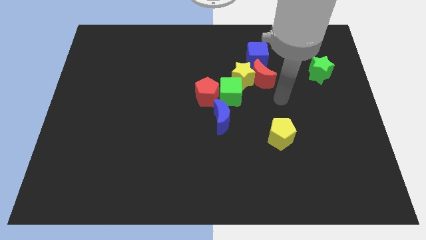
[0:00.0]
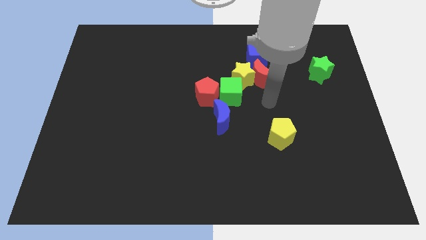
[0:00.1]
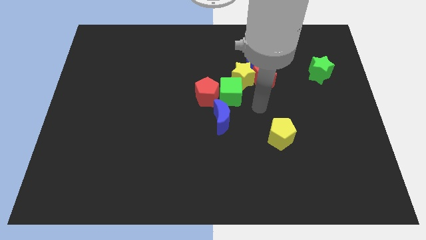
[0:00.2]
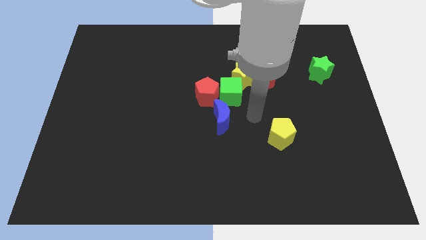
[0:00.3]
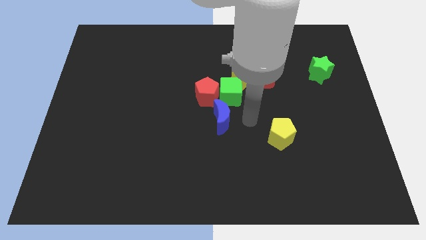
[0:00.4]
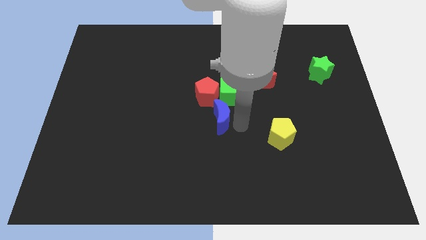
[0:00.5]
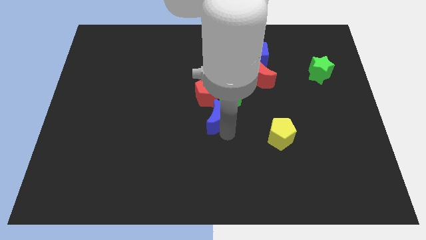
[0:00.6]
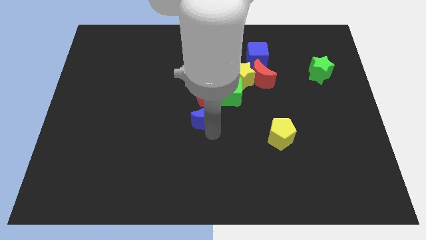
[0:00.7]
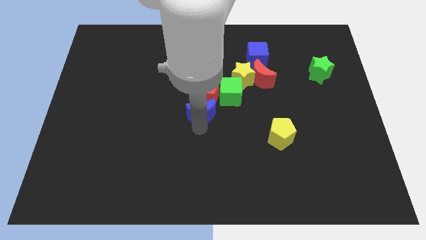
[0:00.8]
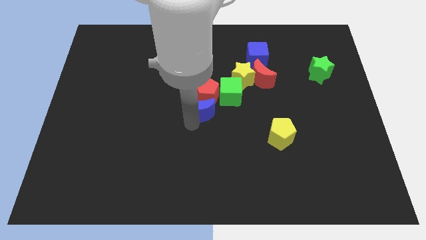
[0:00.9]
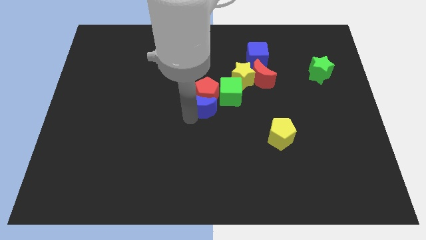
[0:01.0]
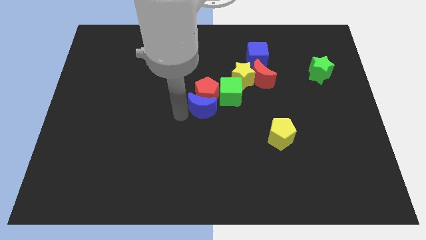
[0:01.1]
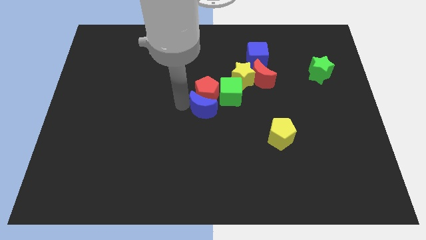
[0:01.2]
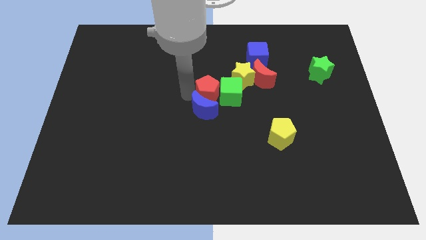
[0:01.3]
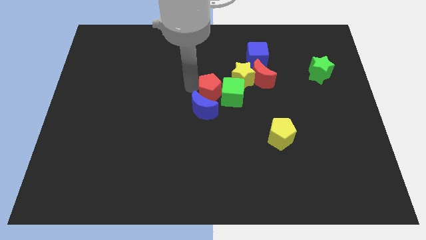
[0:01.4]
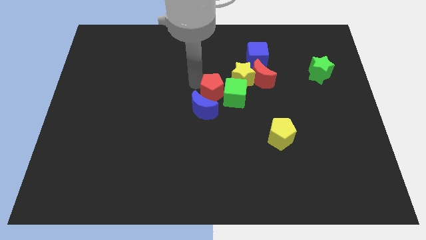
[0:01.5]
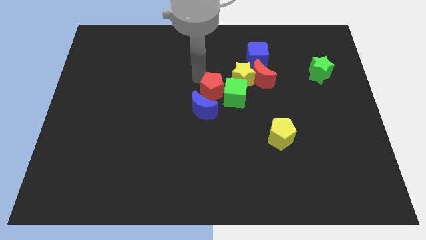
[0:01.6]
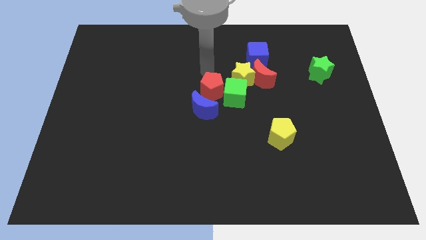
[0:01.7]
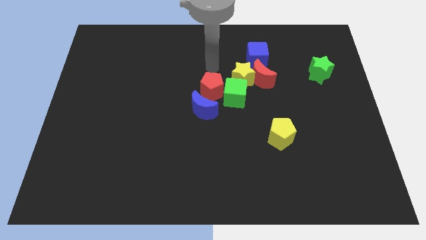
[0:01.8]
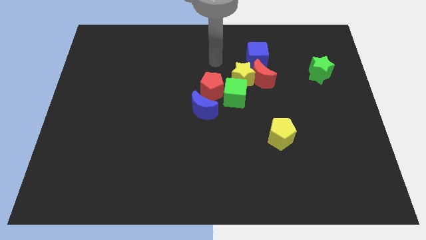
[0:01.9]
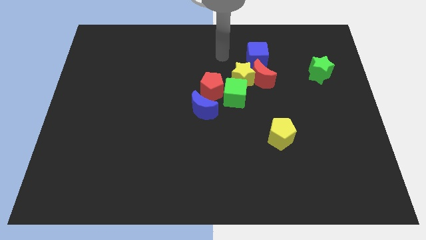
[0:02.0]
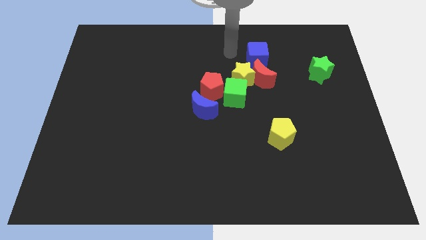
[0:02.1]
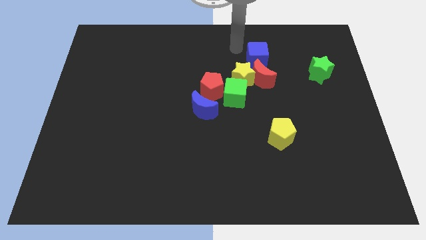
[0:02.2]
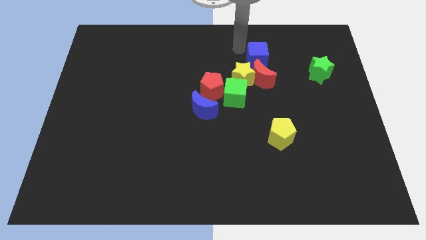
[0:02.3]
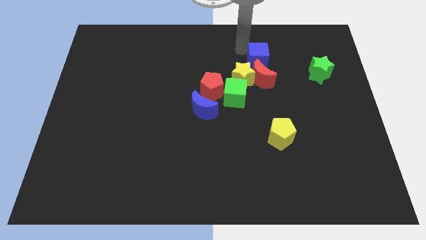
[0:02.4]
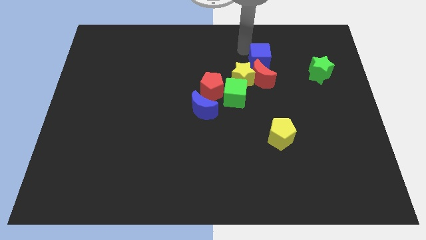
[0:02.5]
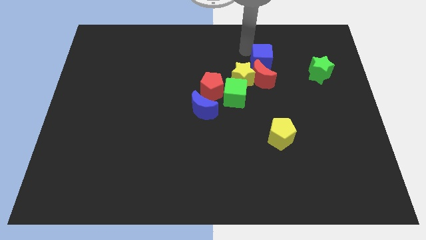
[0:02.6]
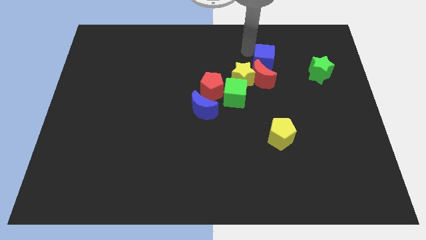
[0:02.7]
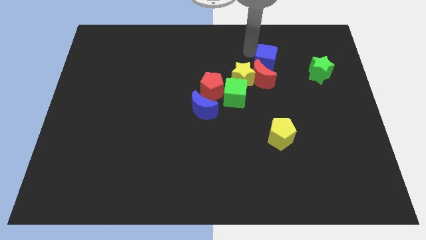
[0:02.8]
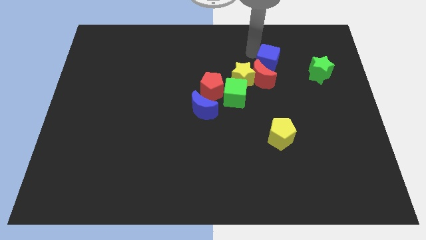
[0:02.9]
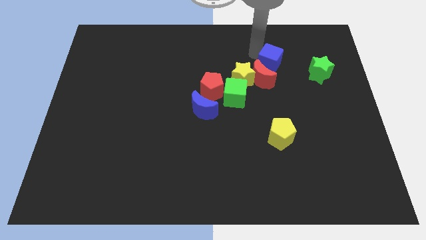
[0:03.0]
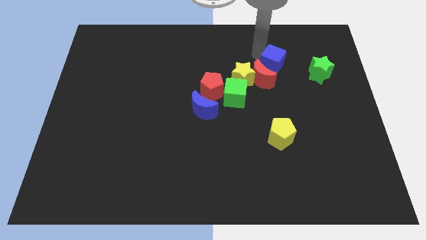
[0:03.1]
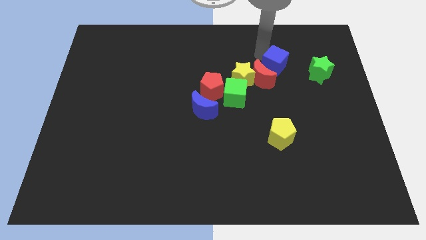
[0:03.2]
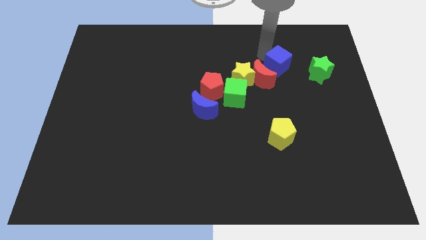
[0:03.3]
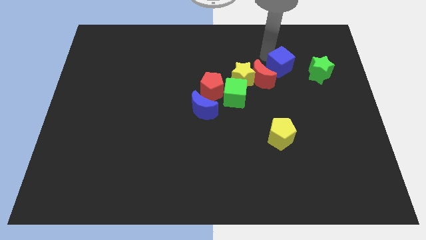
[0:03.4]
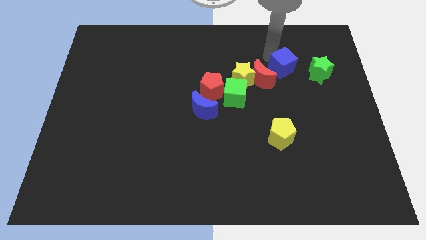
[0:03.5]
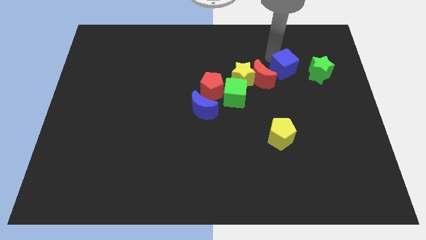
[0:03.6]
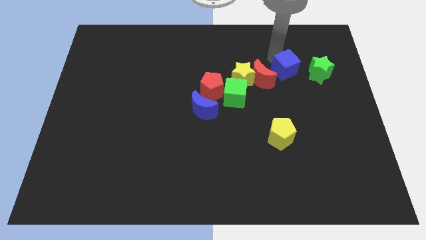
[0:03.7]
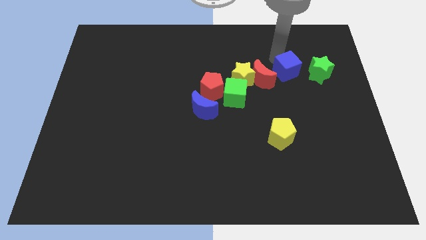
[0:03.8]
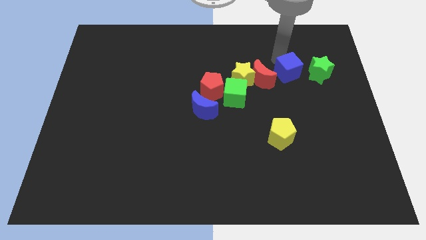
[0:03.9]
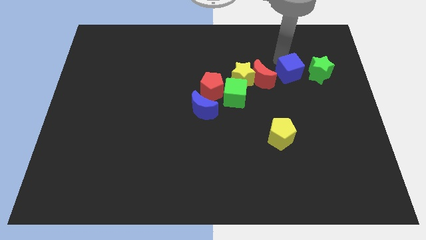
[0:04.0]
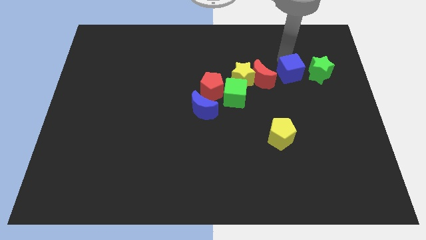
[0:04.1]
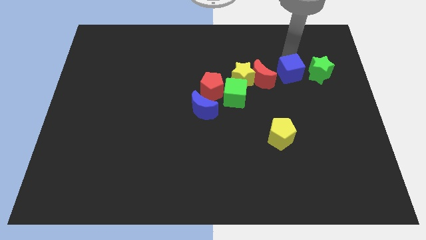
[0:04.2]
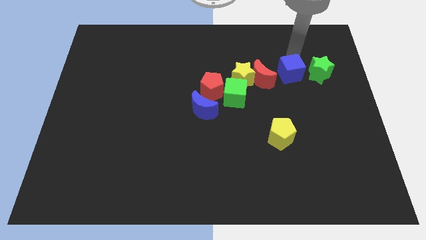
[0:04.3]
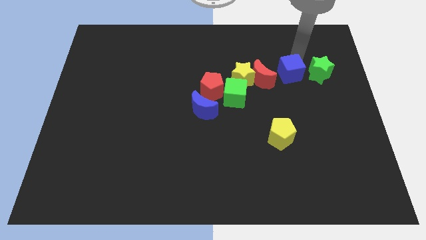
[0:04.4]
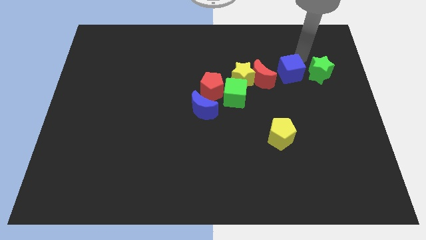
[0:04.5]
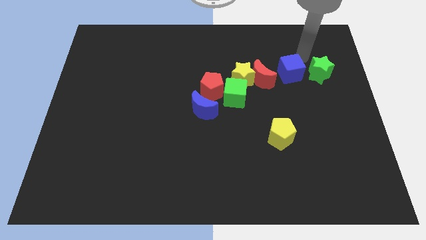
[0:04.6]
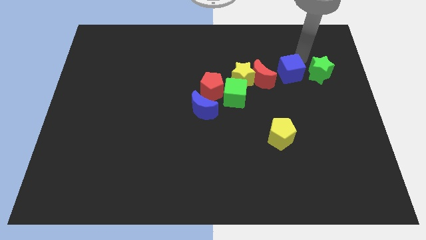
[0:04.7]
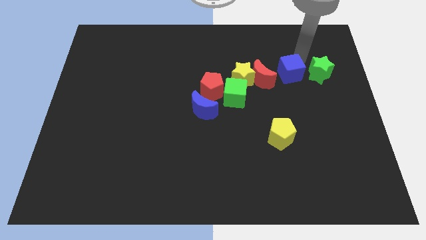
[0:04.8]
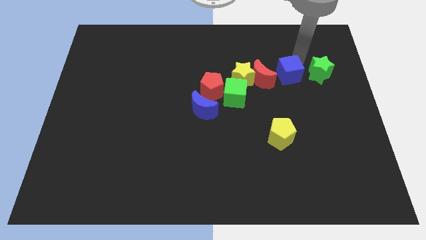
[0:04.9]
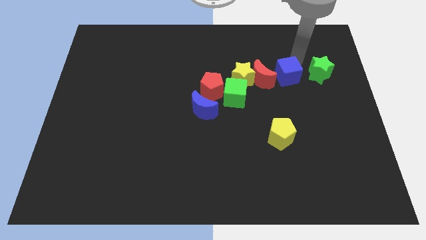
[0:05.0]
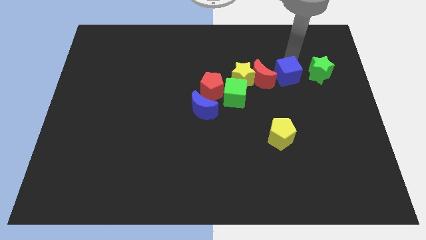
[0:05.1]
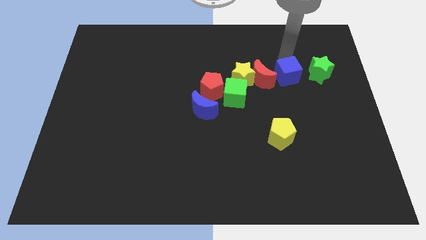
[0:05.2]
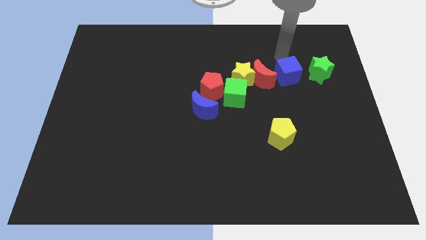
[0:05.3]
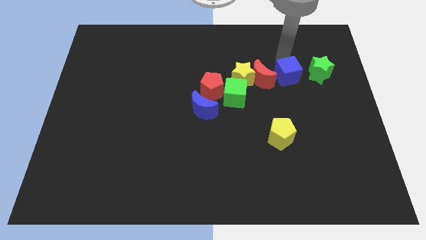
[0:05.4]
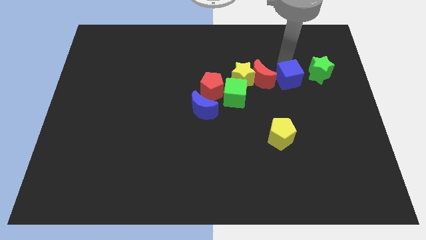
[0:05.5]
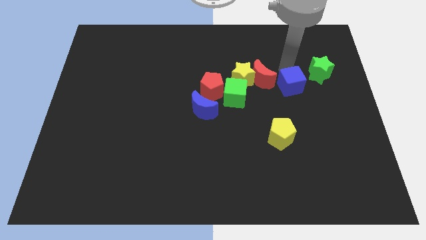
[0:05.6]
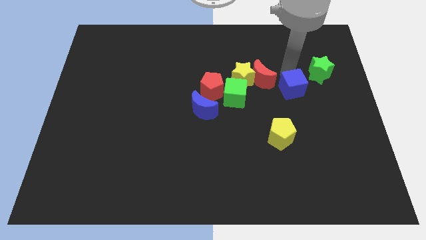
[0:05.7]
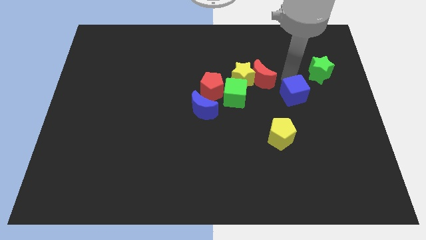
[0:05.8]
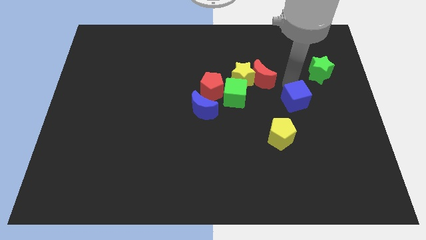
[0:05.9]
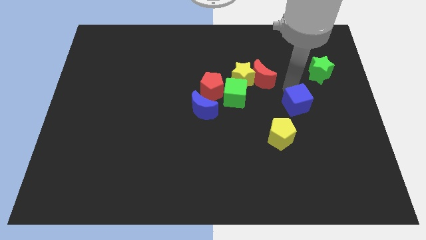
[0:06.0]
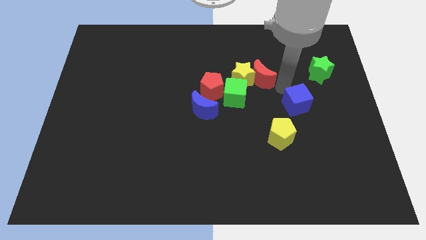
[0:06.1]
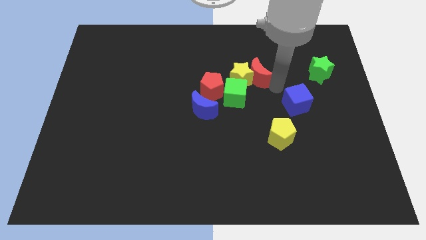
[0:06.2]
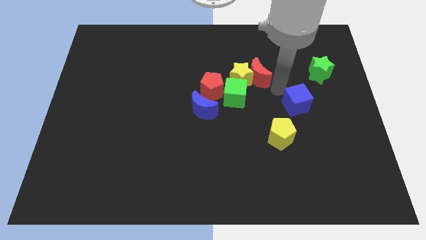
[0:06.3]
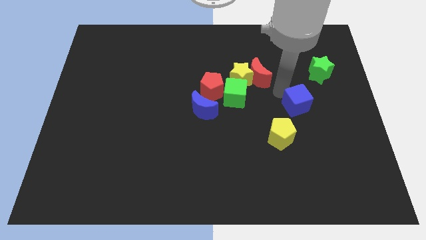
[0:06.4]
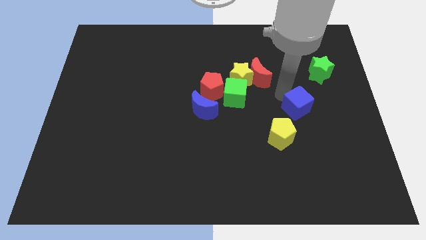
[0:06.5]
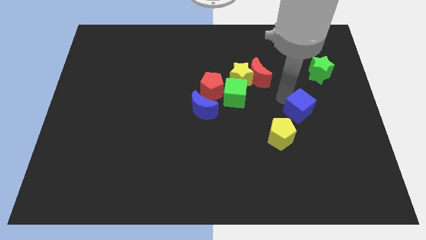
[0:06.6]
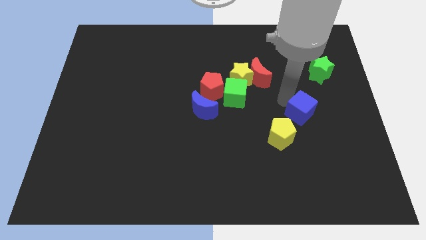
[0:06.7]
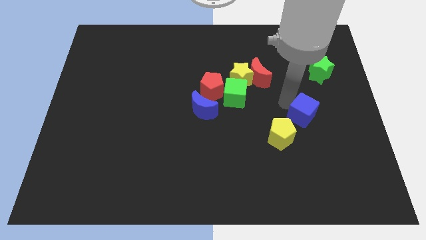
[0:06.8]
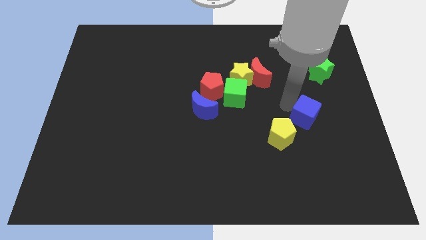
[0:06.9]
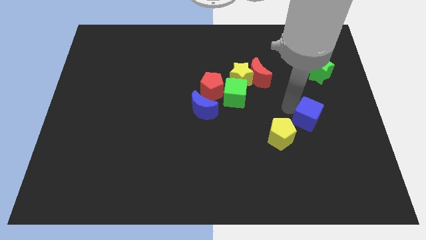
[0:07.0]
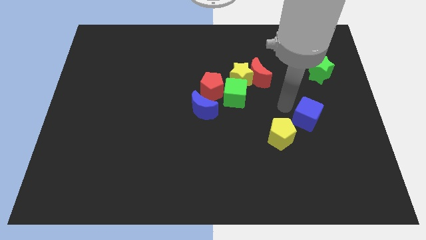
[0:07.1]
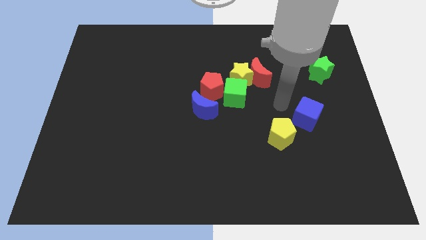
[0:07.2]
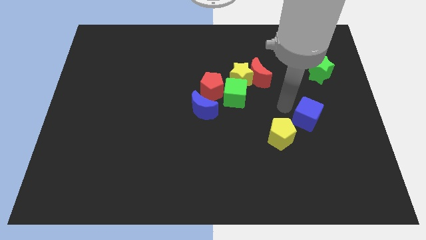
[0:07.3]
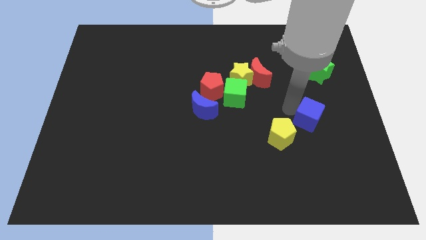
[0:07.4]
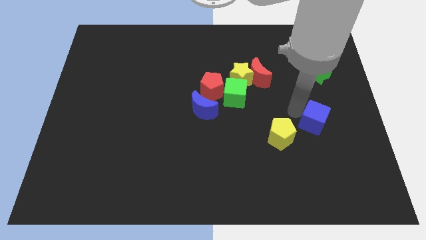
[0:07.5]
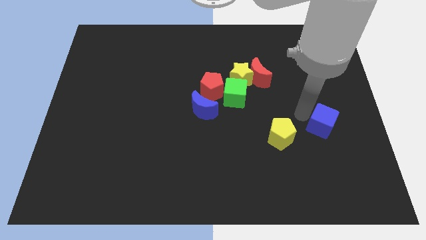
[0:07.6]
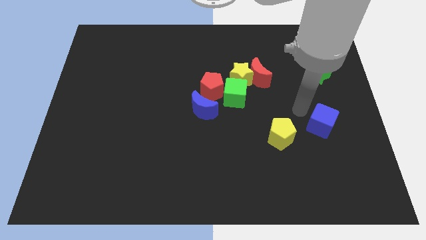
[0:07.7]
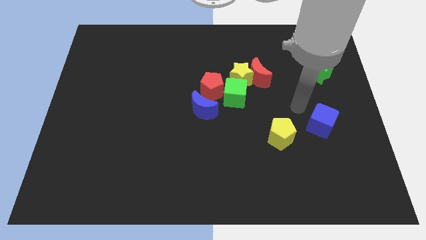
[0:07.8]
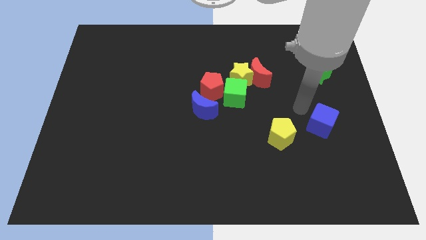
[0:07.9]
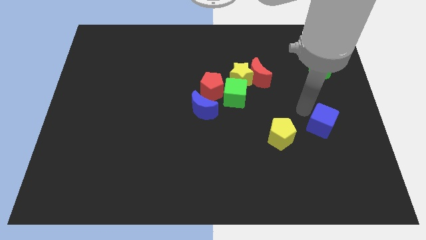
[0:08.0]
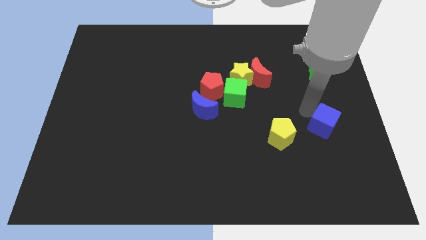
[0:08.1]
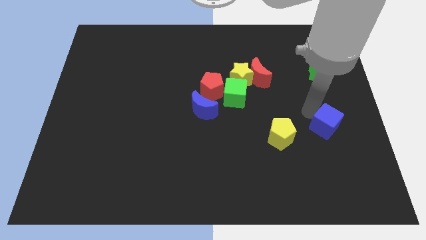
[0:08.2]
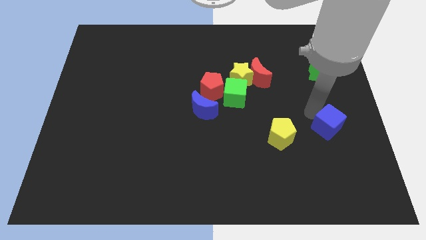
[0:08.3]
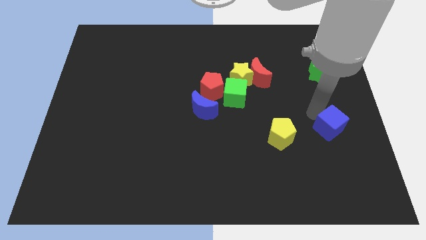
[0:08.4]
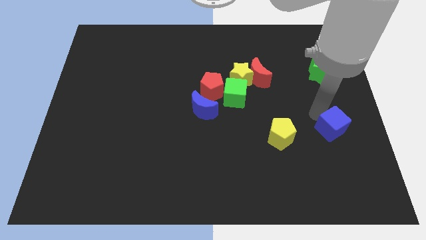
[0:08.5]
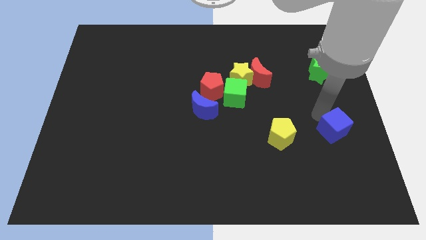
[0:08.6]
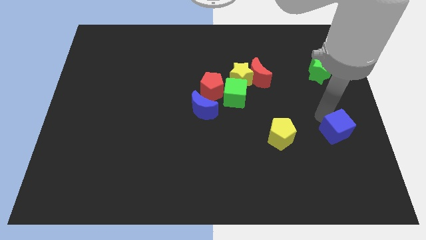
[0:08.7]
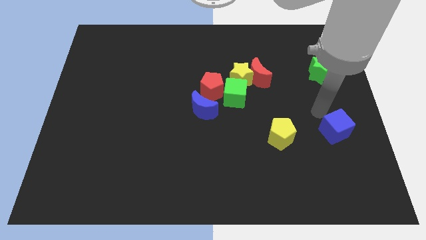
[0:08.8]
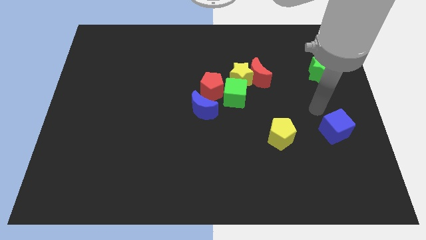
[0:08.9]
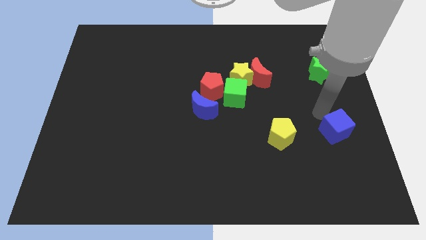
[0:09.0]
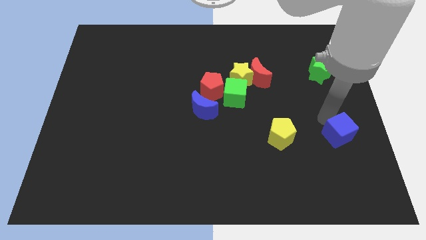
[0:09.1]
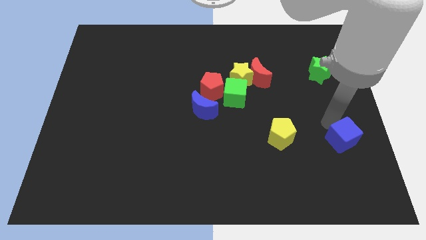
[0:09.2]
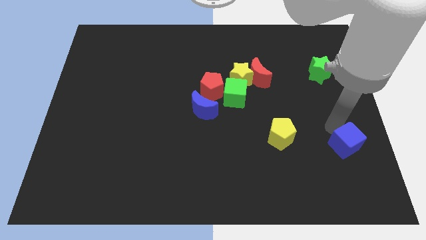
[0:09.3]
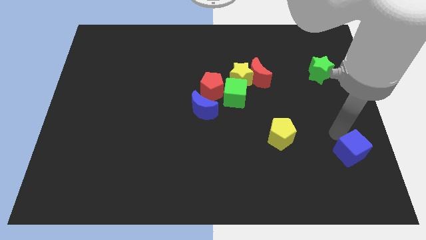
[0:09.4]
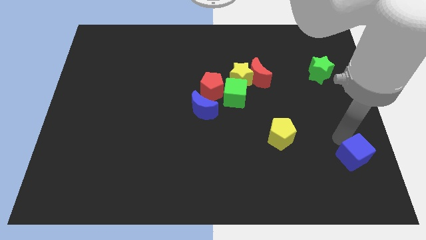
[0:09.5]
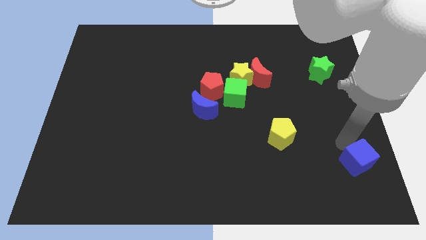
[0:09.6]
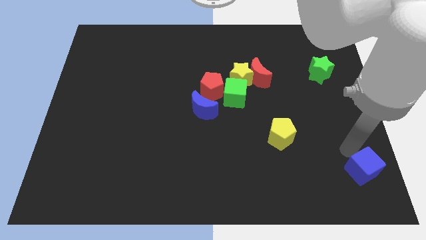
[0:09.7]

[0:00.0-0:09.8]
slide the blue cube to the bottom right of the board
